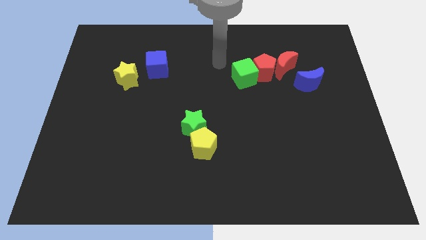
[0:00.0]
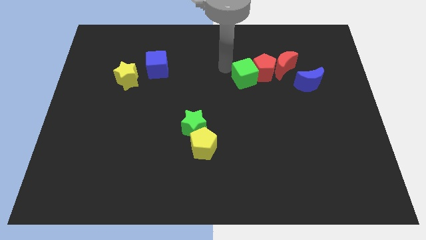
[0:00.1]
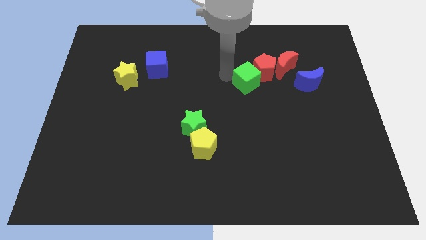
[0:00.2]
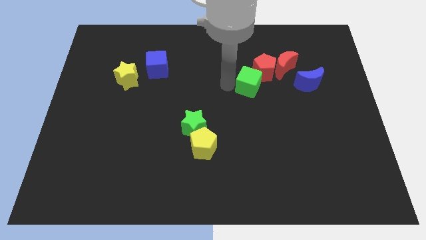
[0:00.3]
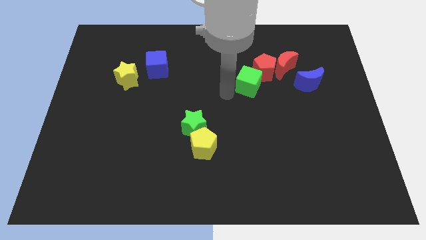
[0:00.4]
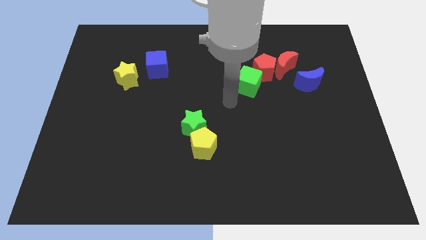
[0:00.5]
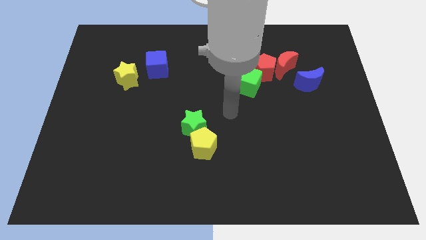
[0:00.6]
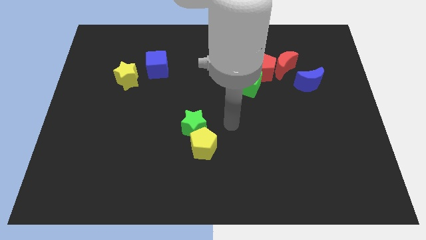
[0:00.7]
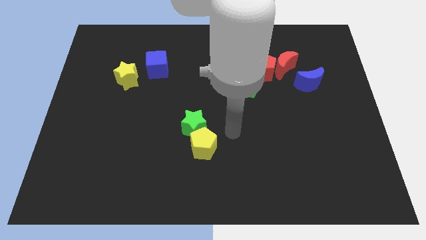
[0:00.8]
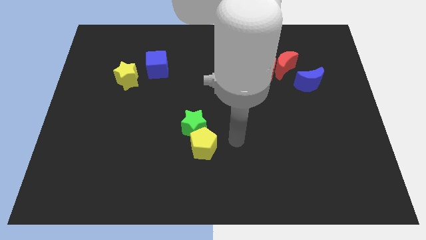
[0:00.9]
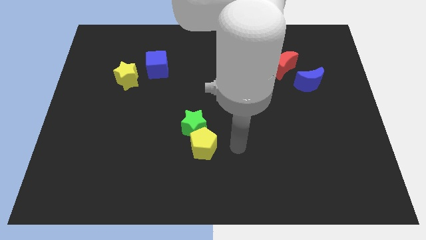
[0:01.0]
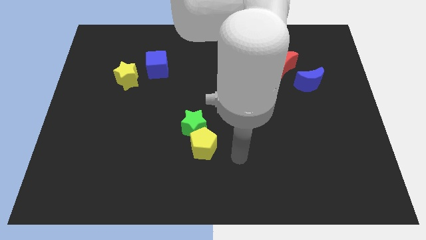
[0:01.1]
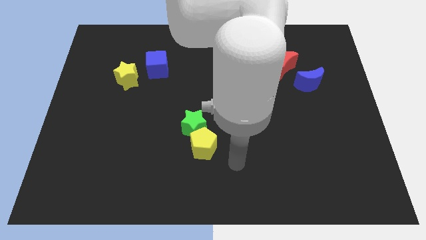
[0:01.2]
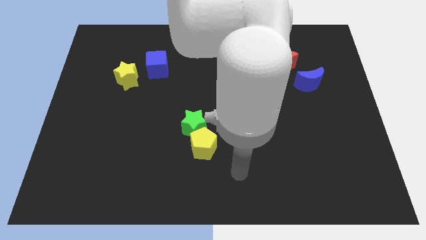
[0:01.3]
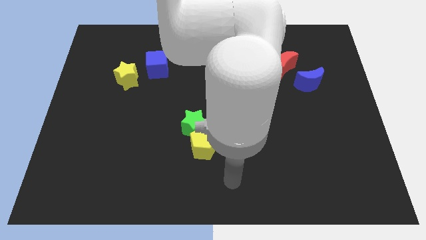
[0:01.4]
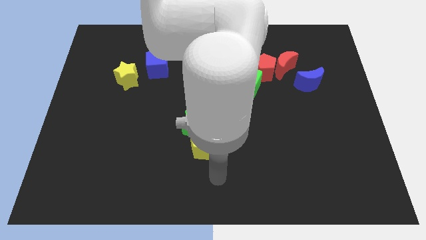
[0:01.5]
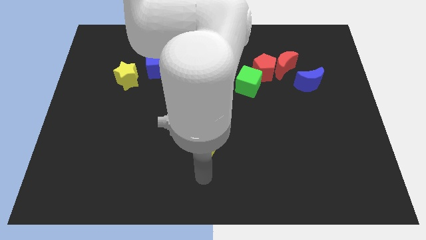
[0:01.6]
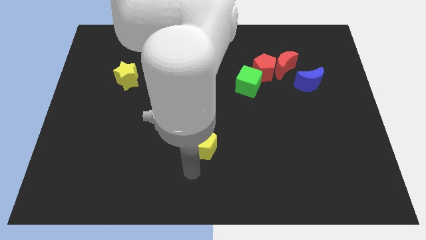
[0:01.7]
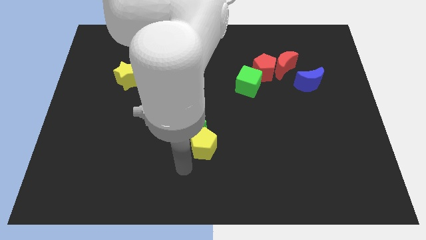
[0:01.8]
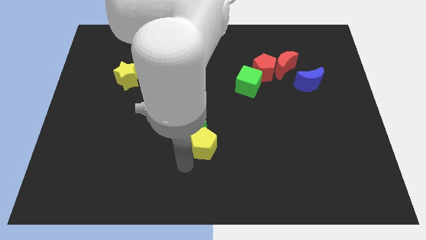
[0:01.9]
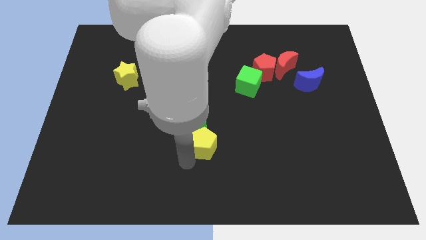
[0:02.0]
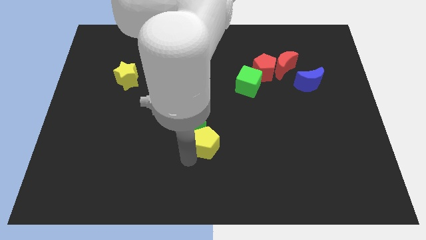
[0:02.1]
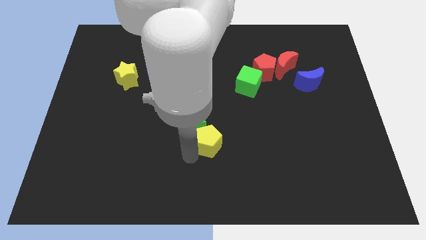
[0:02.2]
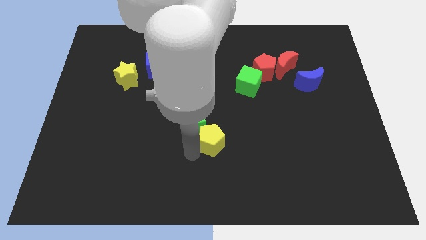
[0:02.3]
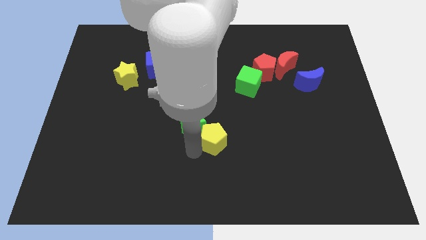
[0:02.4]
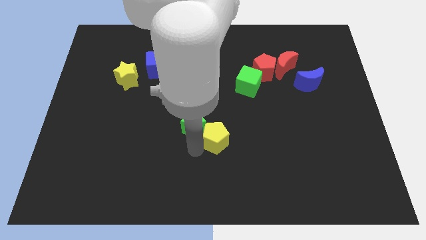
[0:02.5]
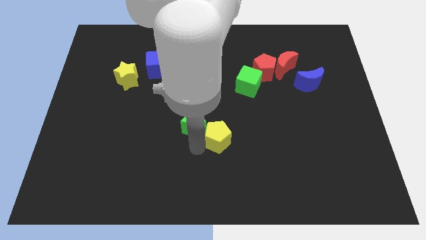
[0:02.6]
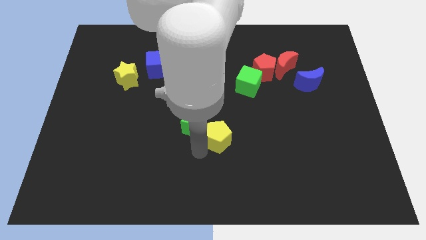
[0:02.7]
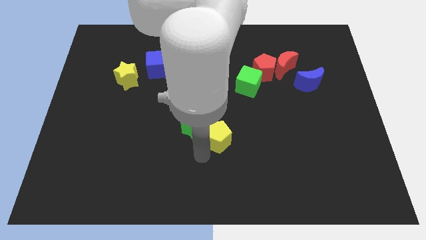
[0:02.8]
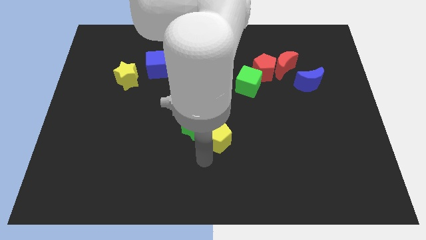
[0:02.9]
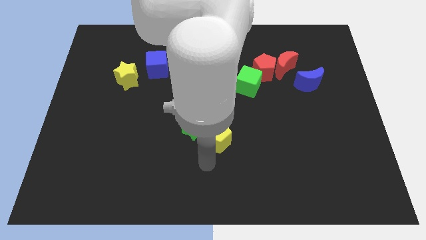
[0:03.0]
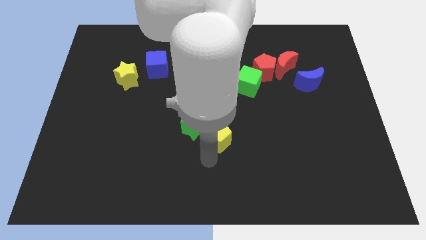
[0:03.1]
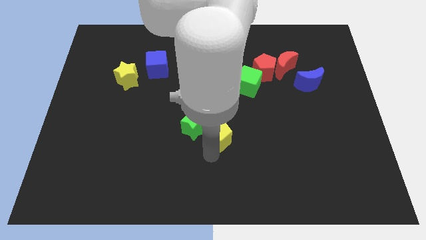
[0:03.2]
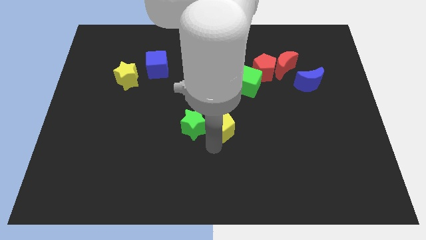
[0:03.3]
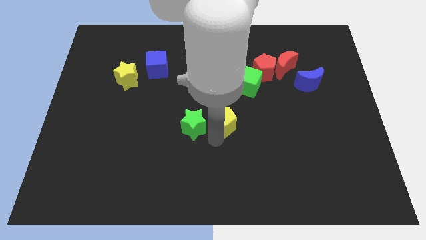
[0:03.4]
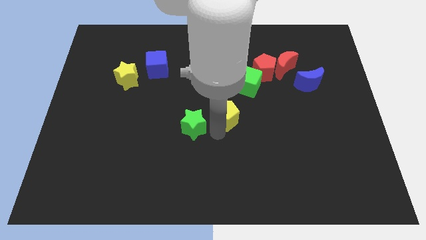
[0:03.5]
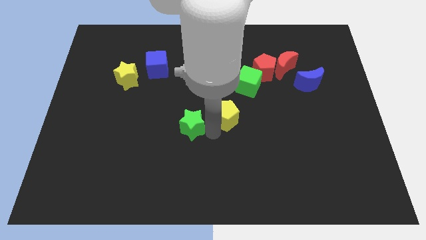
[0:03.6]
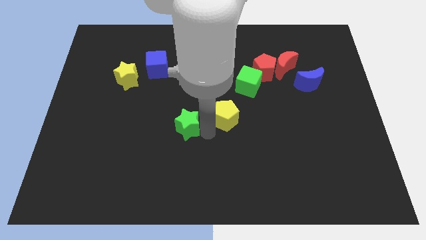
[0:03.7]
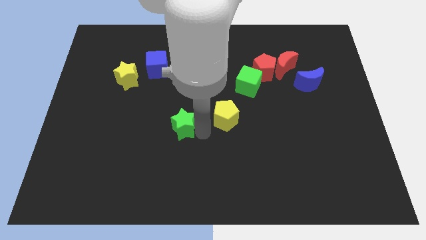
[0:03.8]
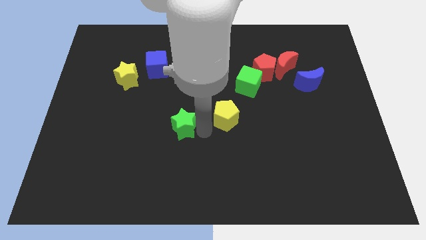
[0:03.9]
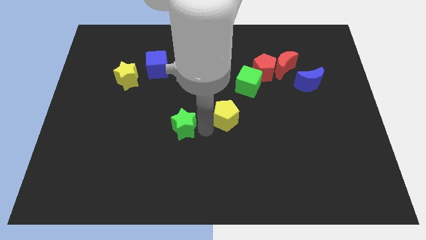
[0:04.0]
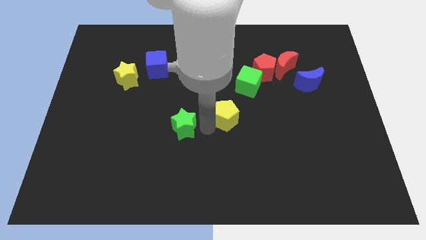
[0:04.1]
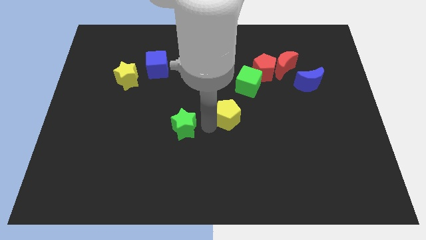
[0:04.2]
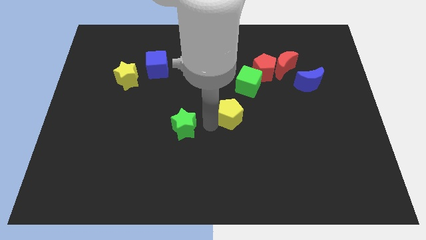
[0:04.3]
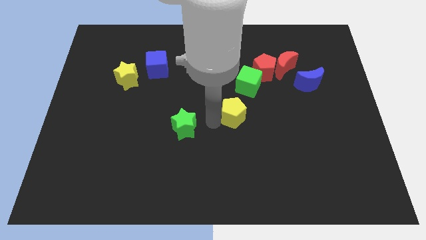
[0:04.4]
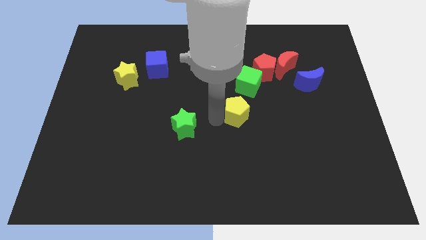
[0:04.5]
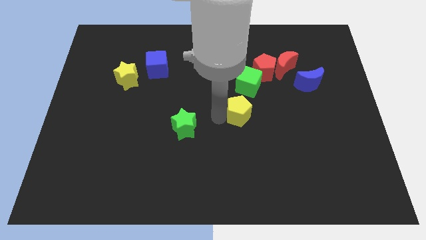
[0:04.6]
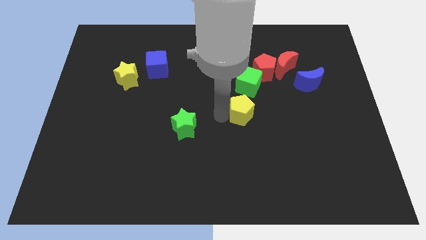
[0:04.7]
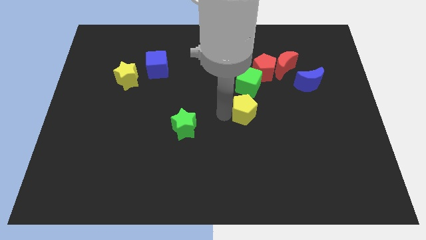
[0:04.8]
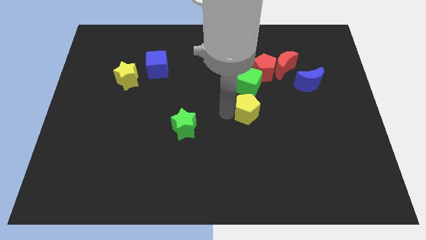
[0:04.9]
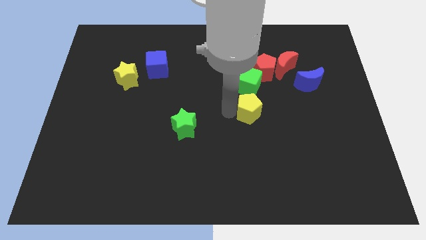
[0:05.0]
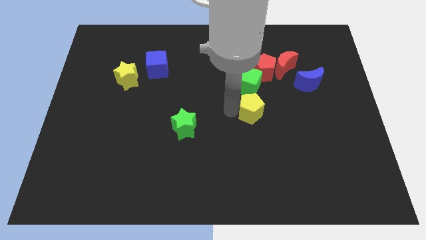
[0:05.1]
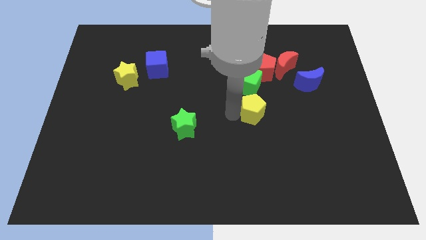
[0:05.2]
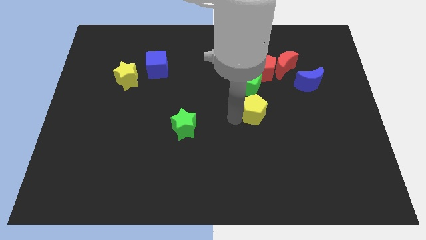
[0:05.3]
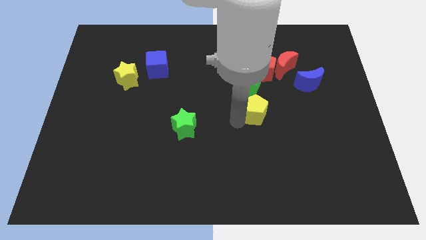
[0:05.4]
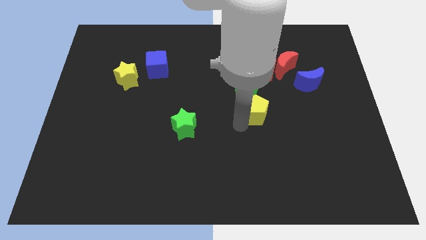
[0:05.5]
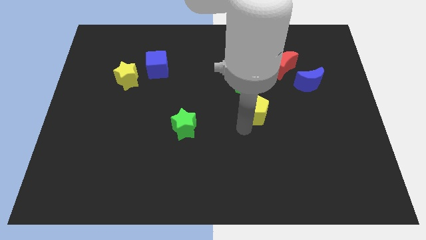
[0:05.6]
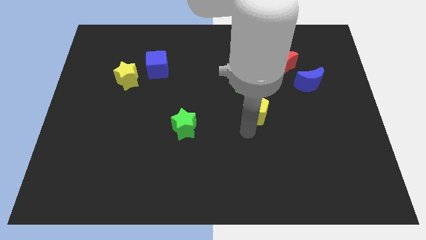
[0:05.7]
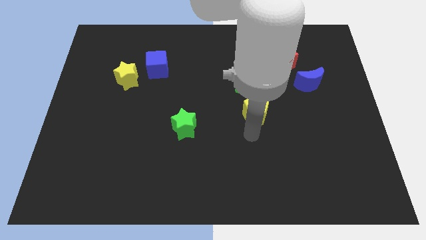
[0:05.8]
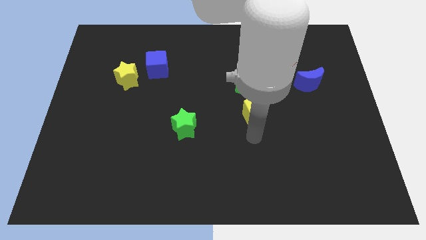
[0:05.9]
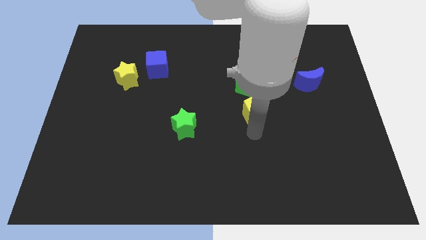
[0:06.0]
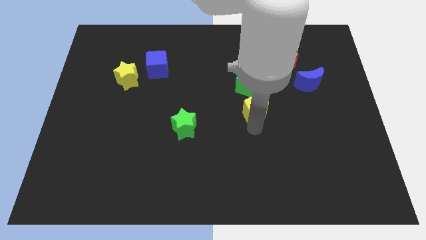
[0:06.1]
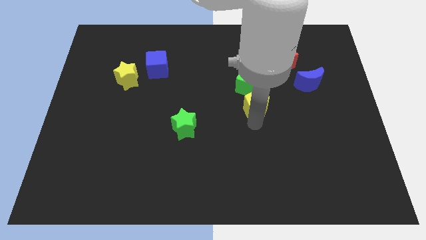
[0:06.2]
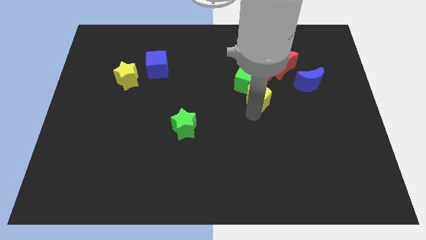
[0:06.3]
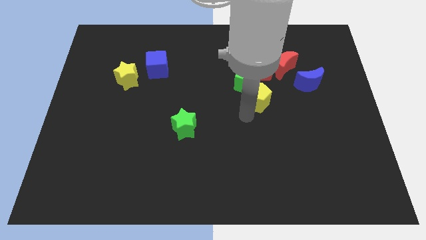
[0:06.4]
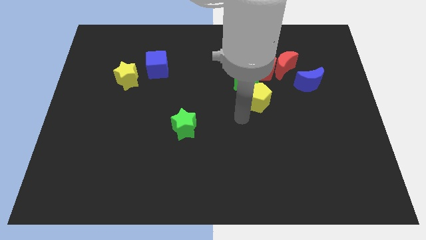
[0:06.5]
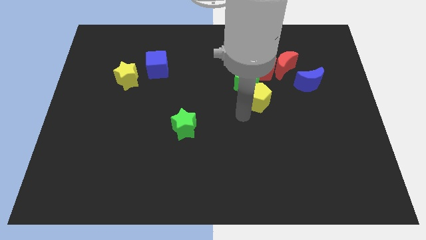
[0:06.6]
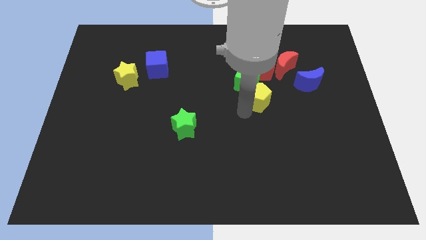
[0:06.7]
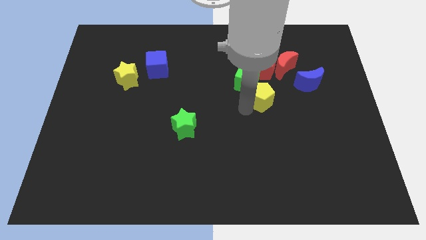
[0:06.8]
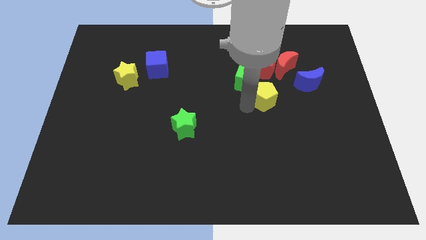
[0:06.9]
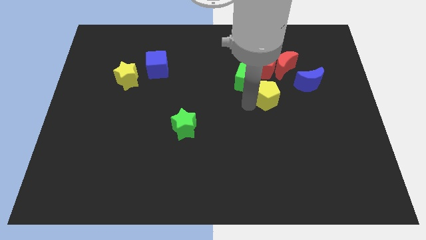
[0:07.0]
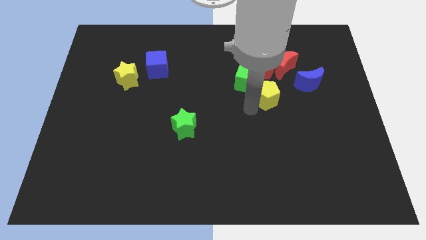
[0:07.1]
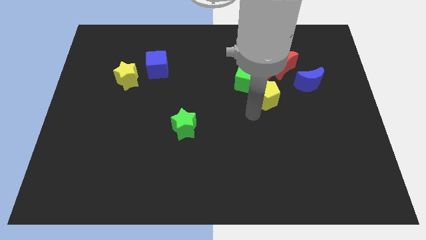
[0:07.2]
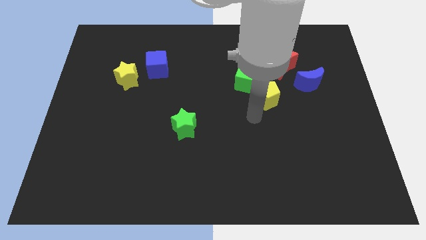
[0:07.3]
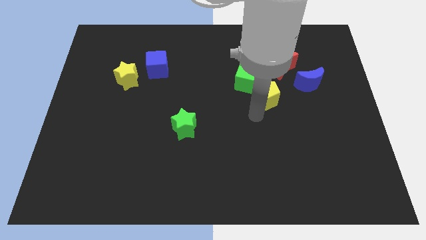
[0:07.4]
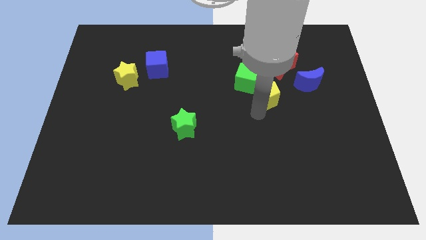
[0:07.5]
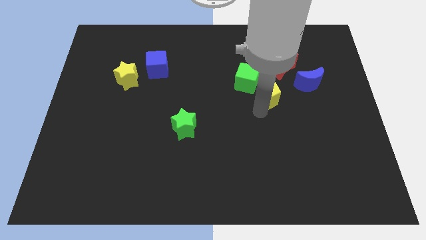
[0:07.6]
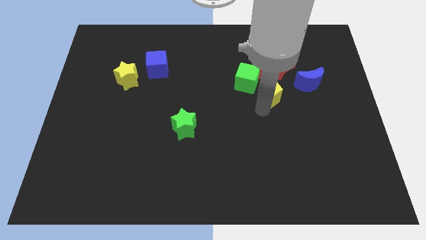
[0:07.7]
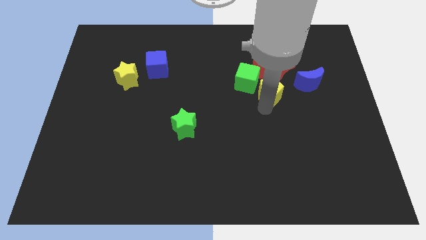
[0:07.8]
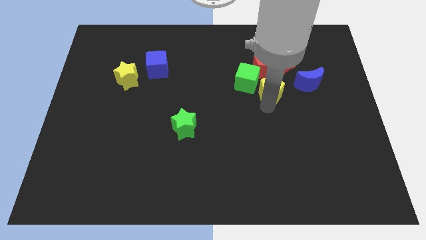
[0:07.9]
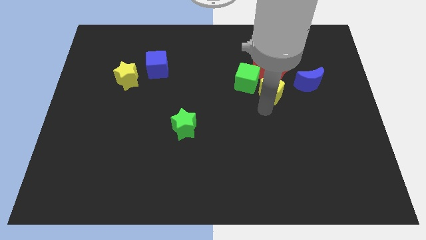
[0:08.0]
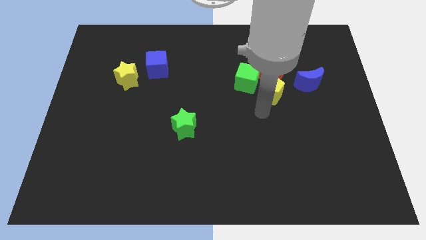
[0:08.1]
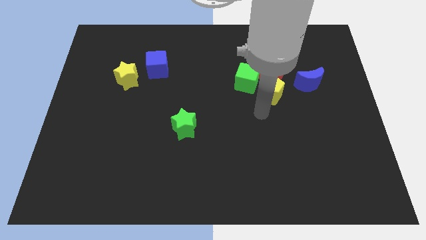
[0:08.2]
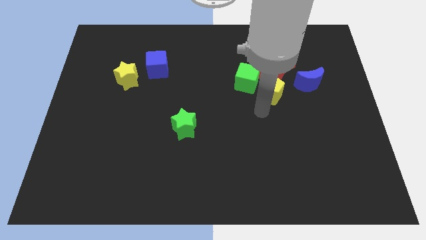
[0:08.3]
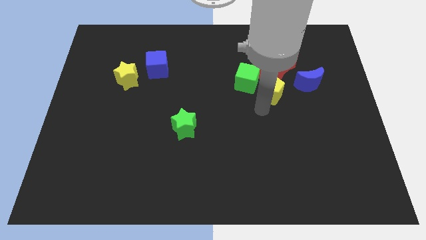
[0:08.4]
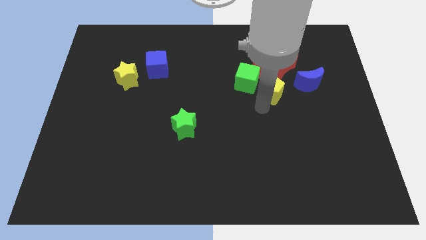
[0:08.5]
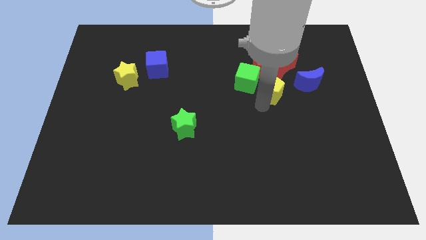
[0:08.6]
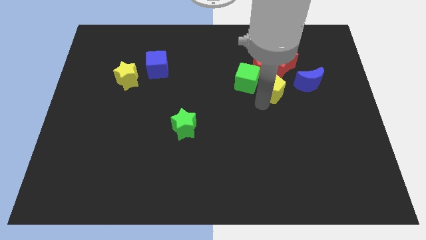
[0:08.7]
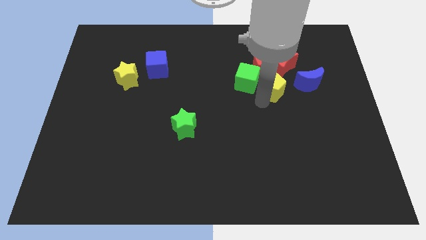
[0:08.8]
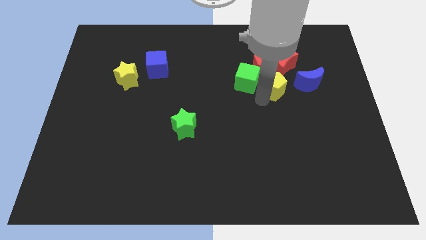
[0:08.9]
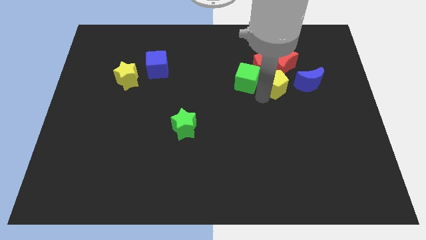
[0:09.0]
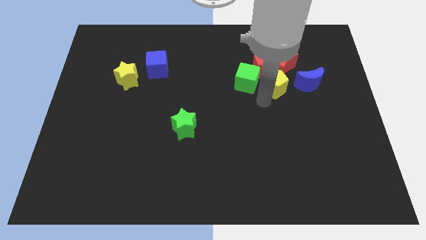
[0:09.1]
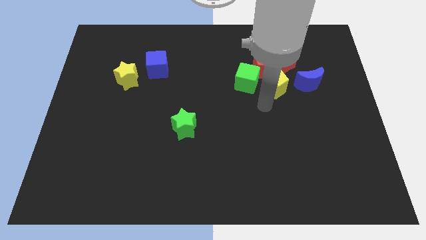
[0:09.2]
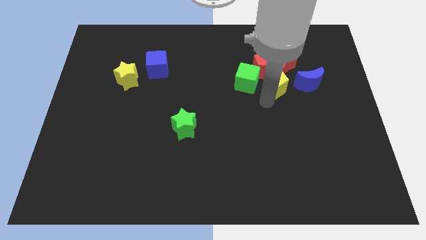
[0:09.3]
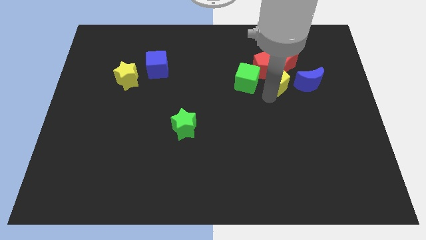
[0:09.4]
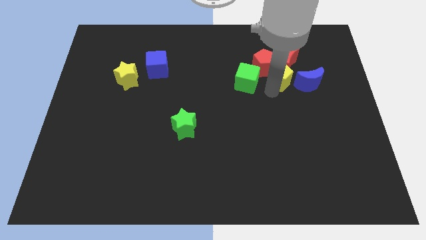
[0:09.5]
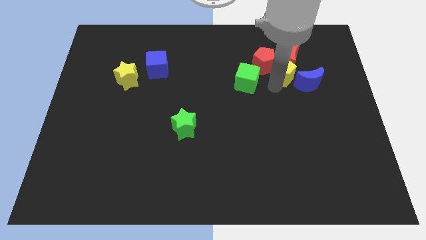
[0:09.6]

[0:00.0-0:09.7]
push the yellow pentagon close to the red moon
